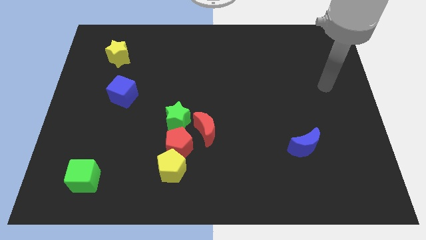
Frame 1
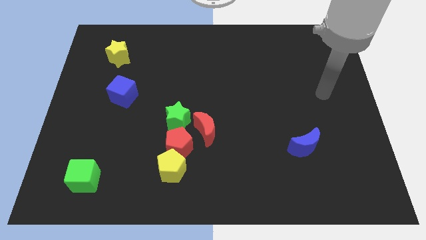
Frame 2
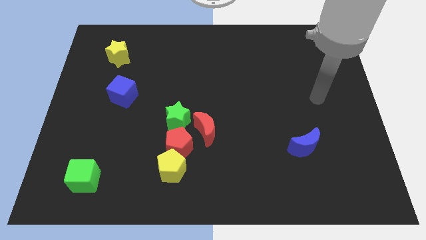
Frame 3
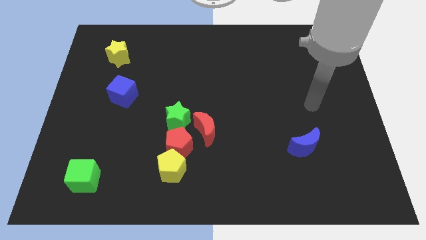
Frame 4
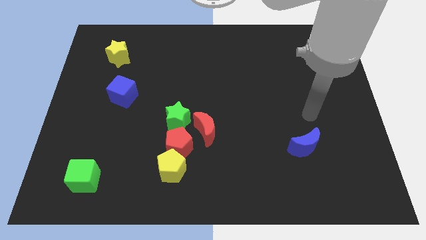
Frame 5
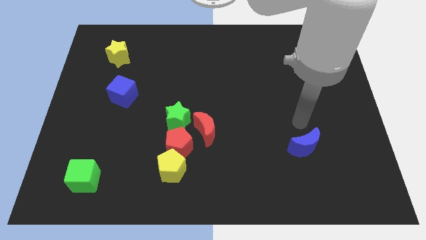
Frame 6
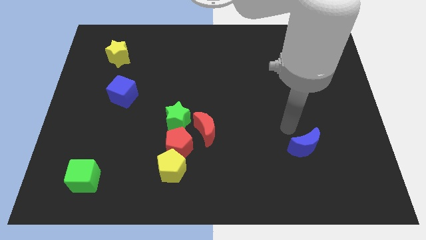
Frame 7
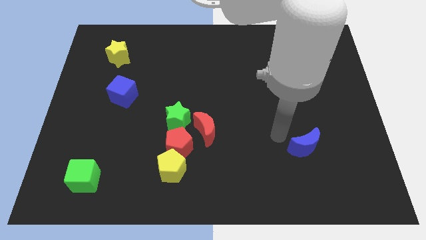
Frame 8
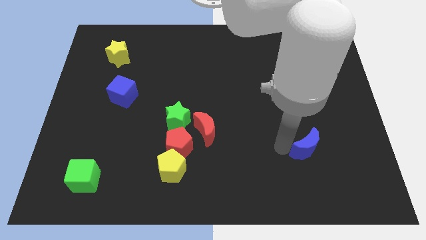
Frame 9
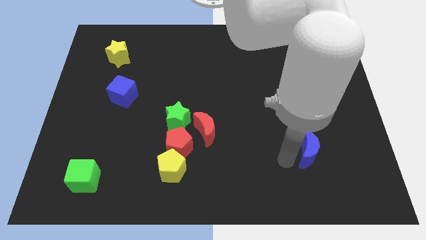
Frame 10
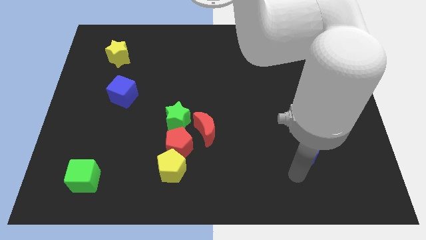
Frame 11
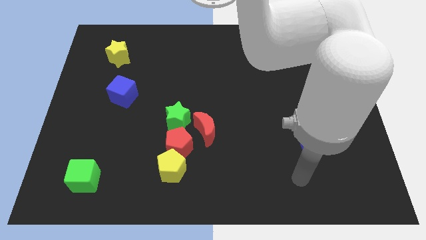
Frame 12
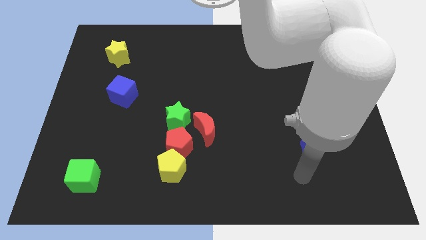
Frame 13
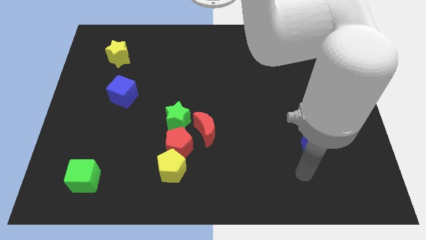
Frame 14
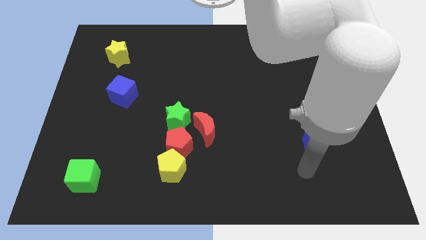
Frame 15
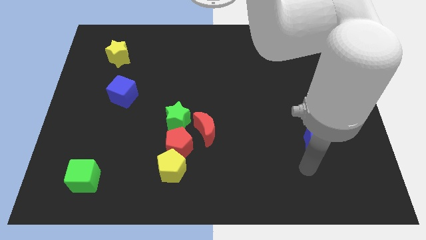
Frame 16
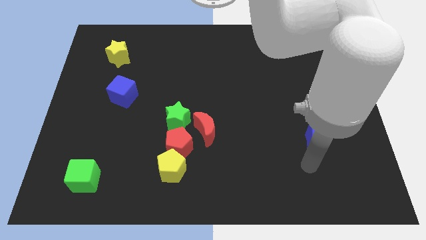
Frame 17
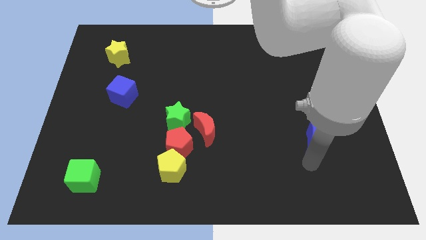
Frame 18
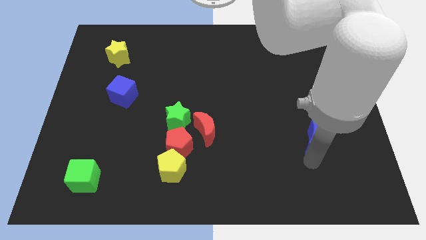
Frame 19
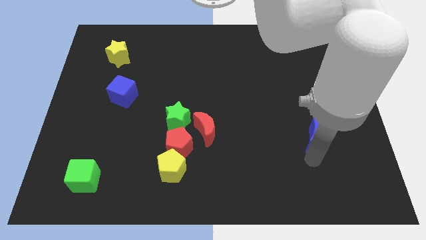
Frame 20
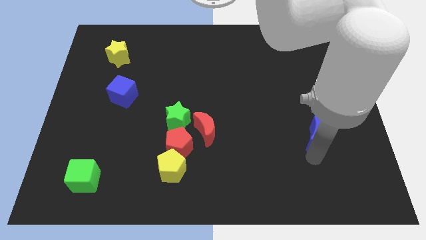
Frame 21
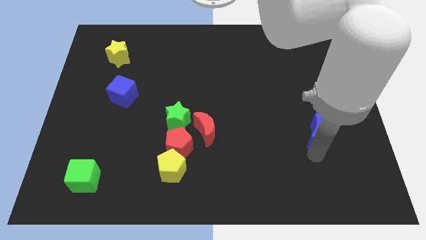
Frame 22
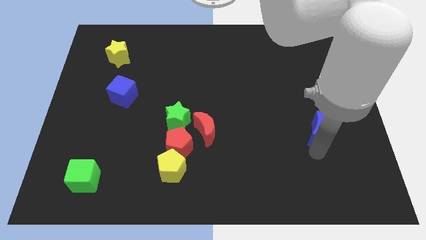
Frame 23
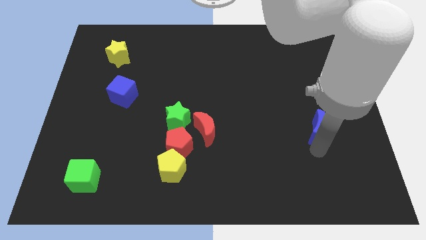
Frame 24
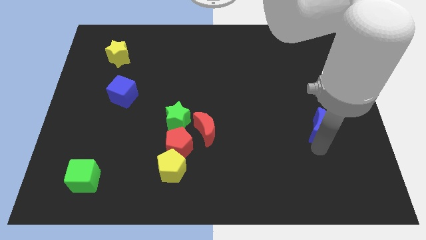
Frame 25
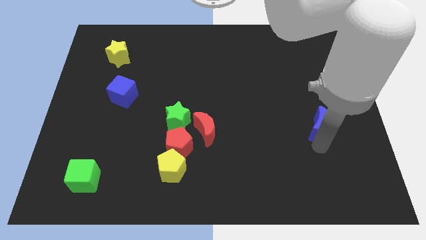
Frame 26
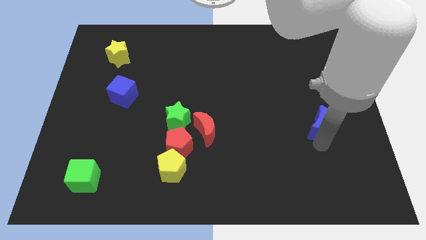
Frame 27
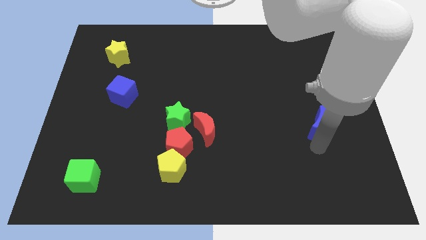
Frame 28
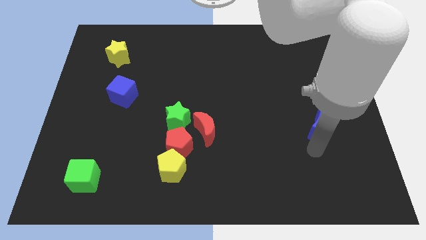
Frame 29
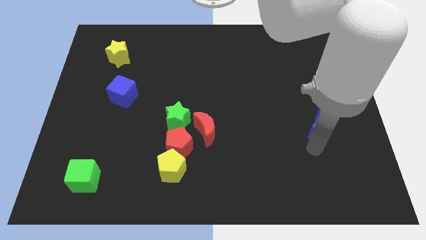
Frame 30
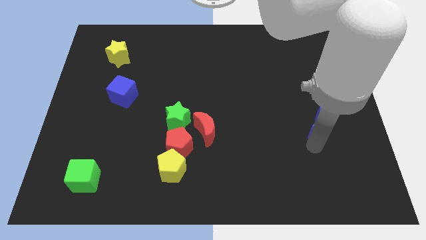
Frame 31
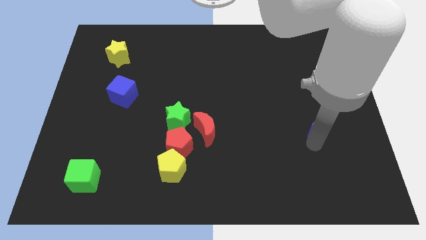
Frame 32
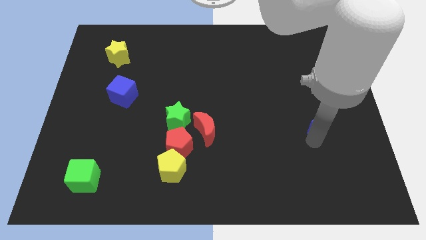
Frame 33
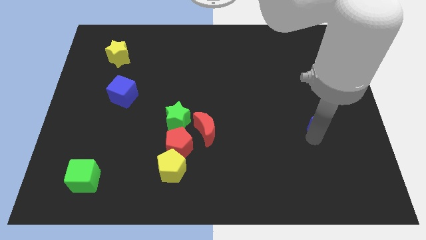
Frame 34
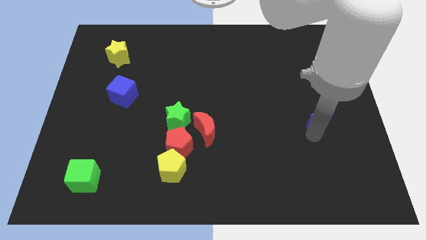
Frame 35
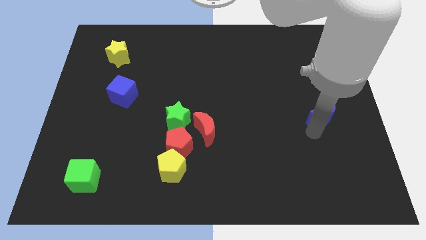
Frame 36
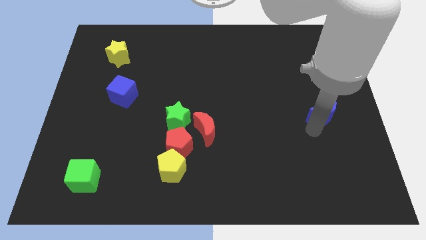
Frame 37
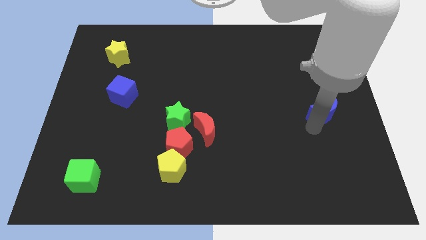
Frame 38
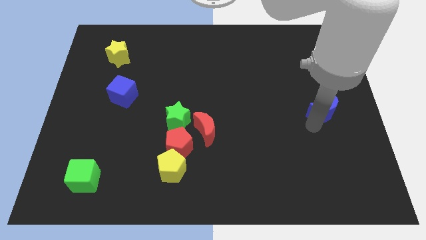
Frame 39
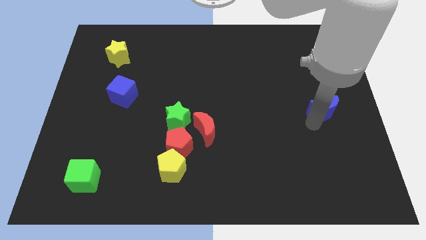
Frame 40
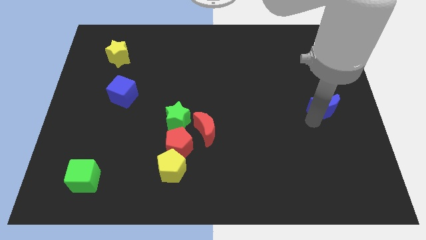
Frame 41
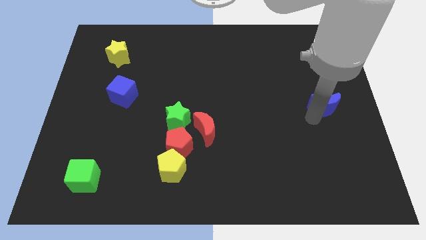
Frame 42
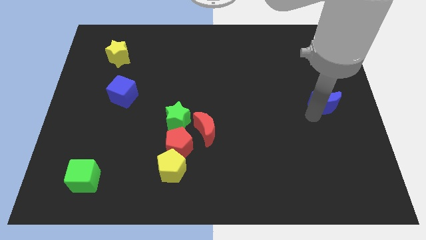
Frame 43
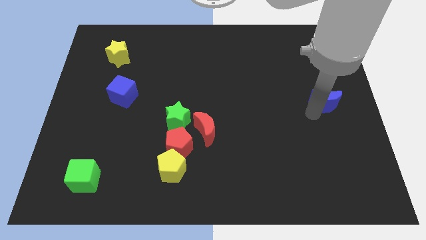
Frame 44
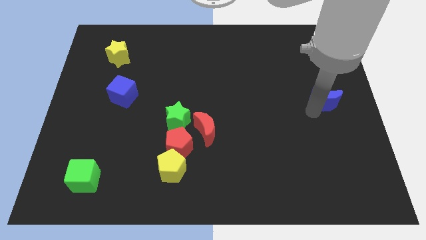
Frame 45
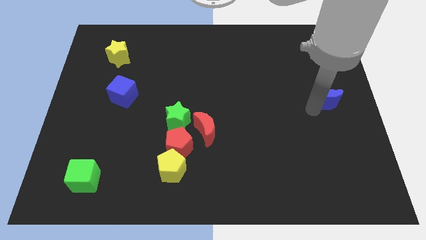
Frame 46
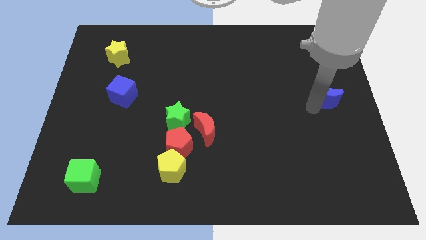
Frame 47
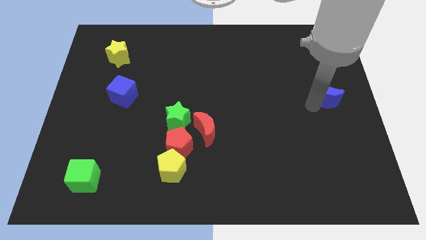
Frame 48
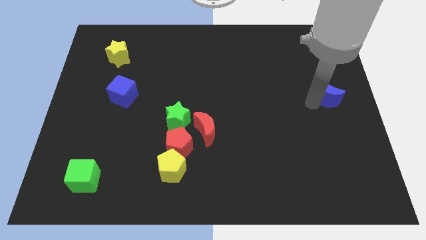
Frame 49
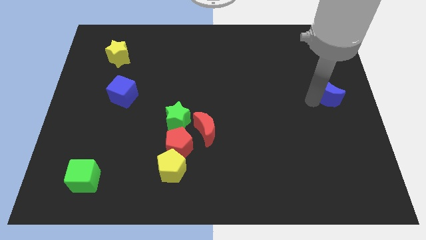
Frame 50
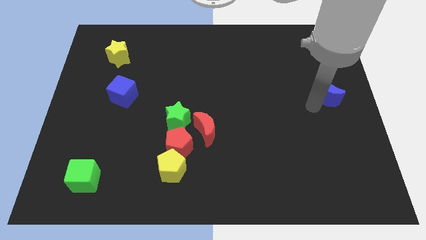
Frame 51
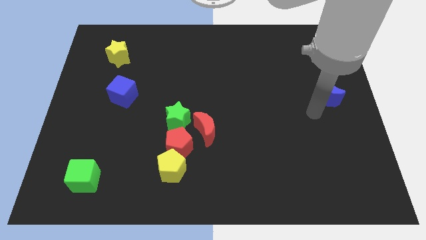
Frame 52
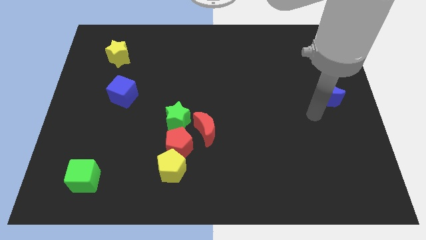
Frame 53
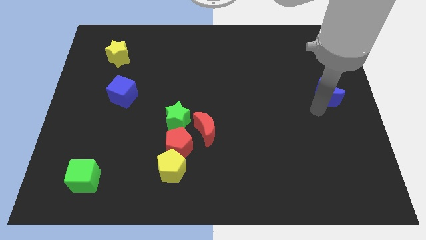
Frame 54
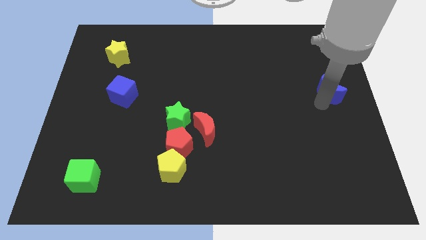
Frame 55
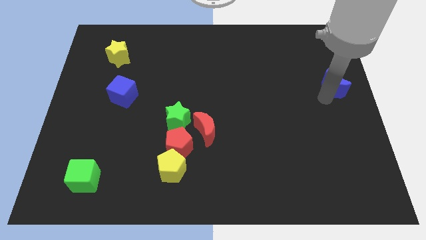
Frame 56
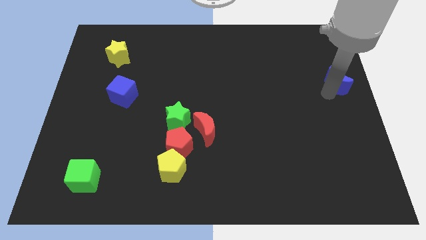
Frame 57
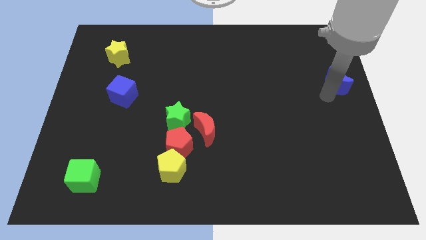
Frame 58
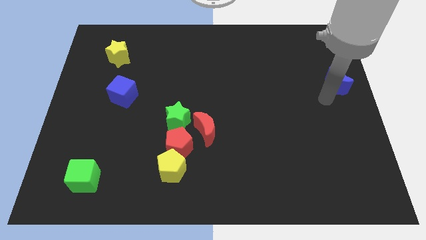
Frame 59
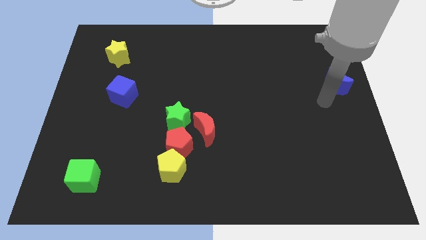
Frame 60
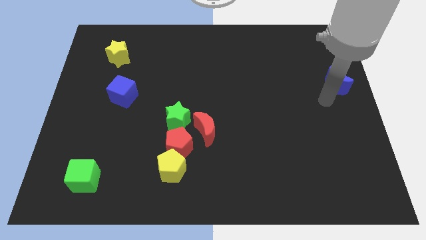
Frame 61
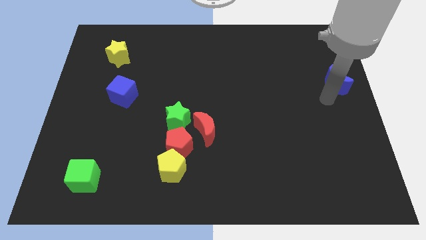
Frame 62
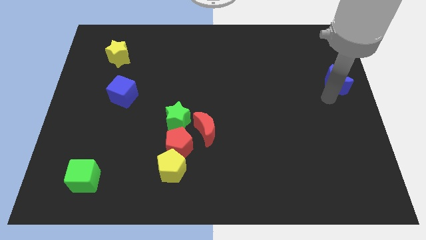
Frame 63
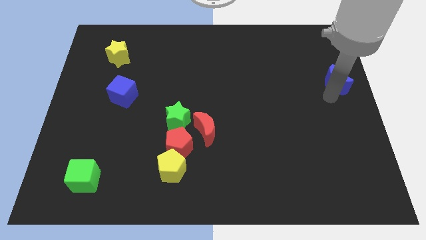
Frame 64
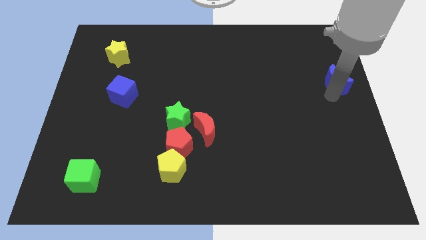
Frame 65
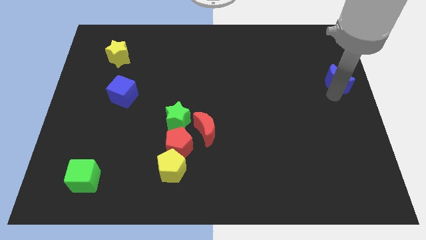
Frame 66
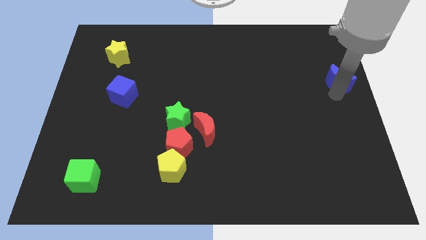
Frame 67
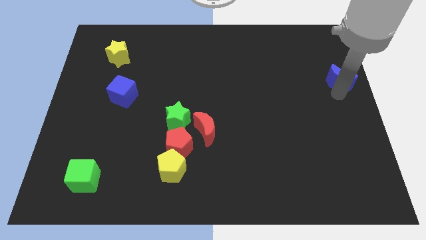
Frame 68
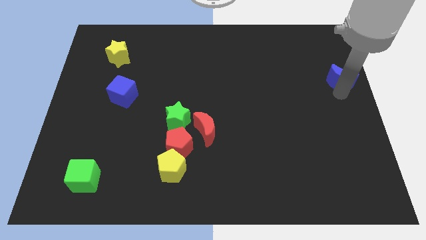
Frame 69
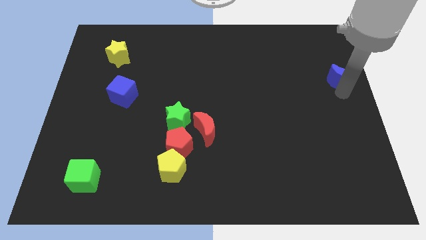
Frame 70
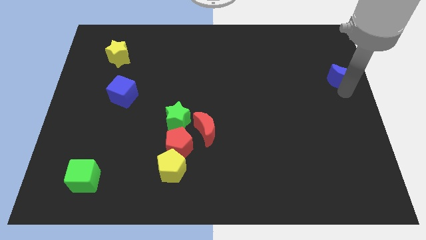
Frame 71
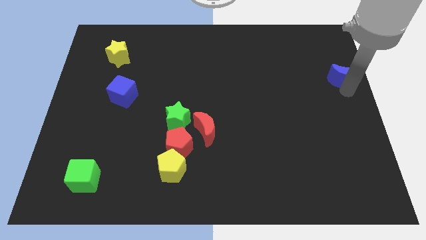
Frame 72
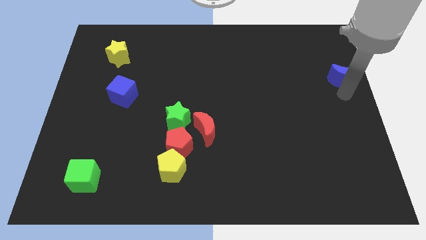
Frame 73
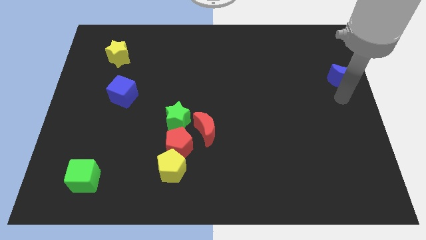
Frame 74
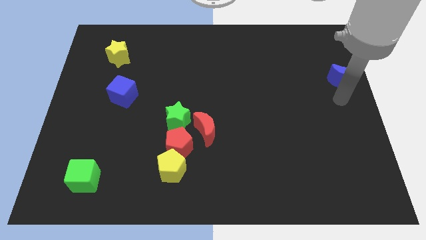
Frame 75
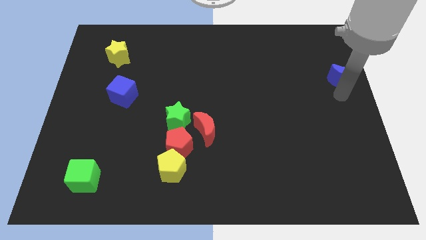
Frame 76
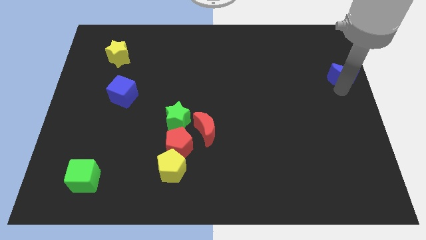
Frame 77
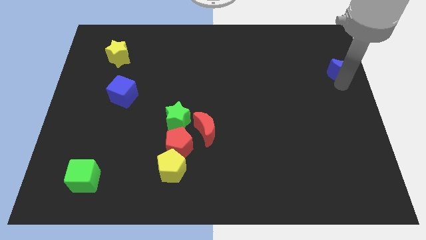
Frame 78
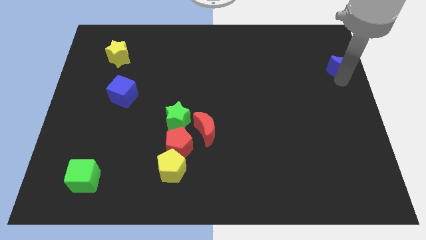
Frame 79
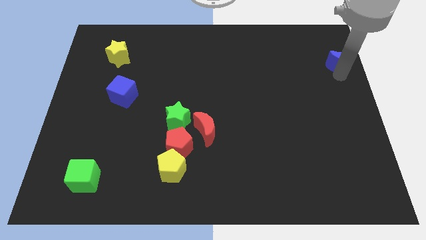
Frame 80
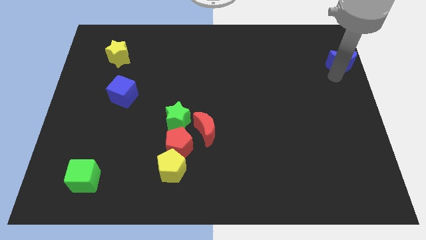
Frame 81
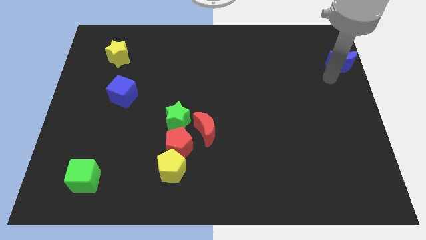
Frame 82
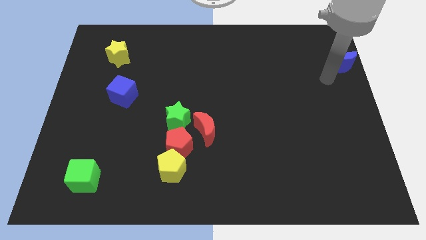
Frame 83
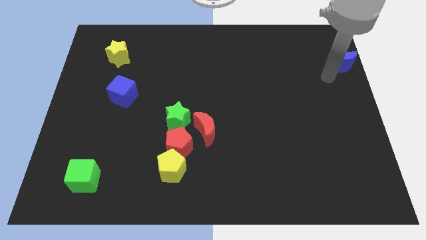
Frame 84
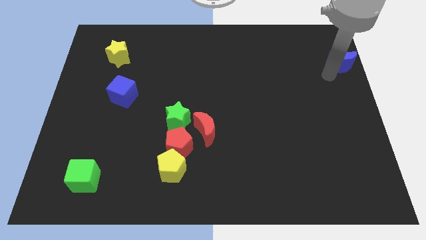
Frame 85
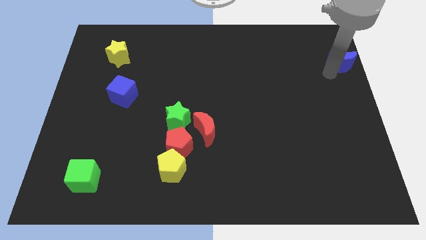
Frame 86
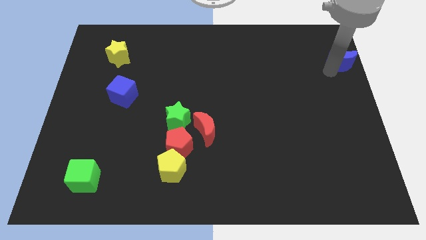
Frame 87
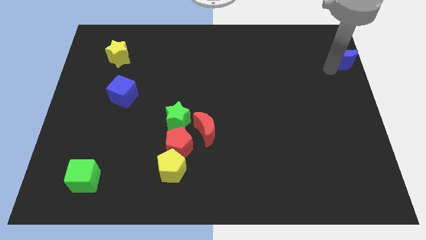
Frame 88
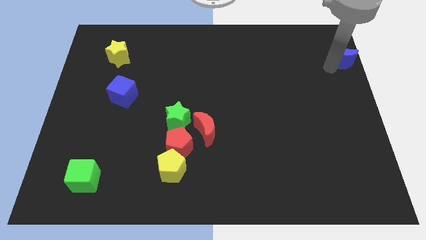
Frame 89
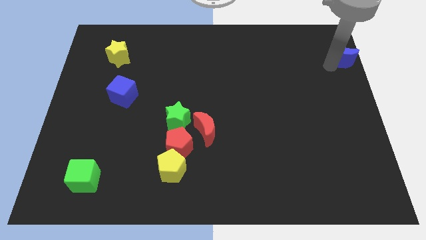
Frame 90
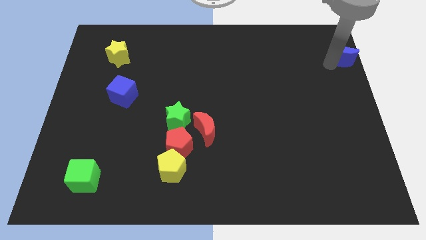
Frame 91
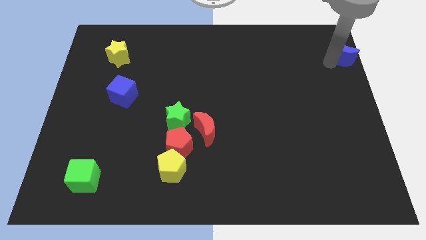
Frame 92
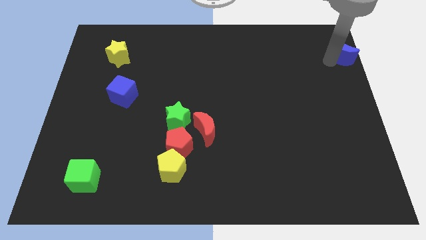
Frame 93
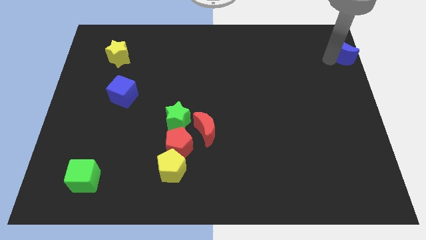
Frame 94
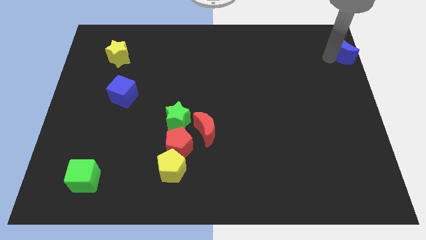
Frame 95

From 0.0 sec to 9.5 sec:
move the blue moon to the upper right corner
